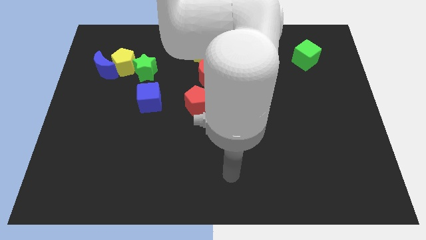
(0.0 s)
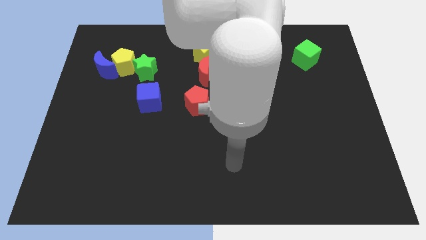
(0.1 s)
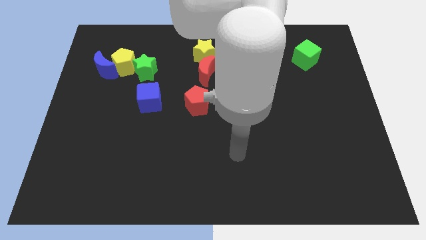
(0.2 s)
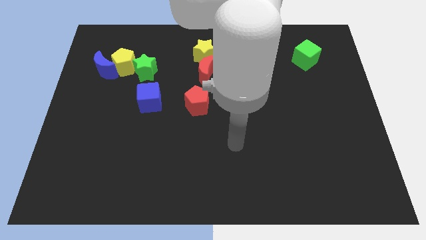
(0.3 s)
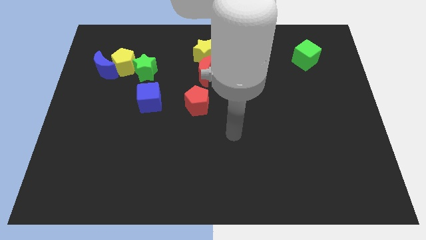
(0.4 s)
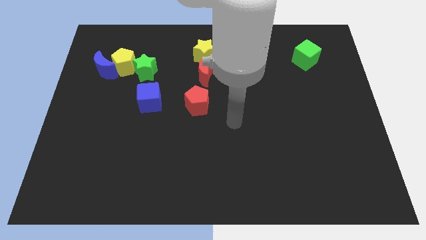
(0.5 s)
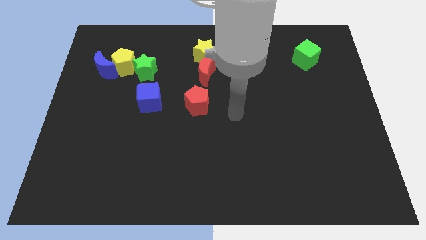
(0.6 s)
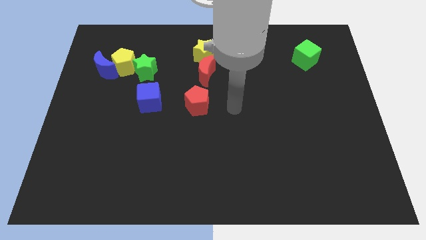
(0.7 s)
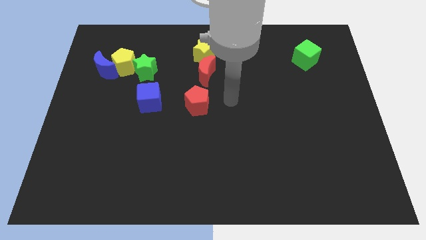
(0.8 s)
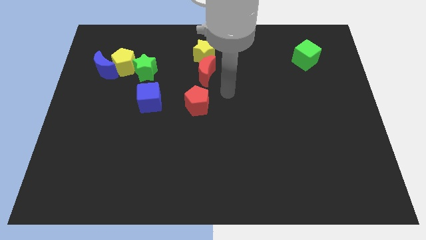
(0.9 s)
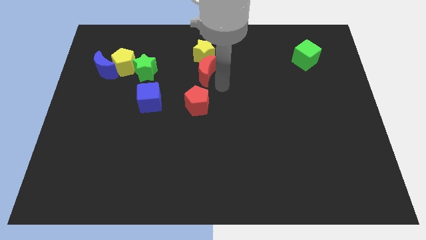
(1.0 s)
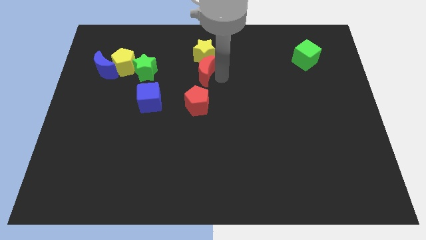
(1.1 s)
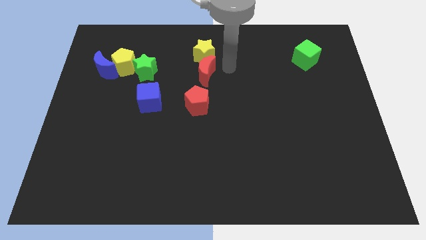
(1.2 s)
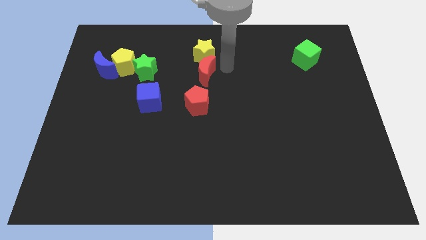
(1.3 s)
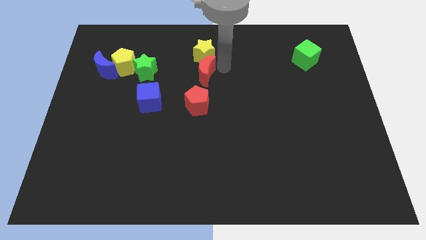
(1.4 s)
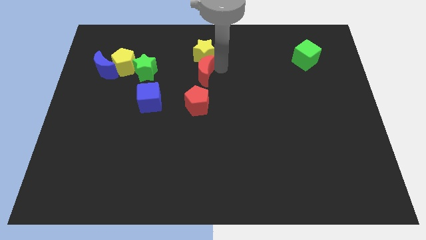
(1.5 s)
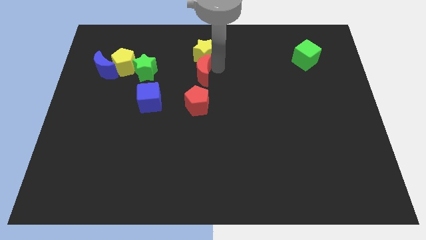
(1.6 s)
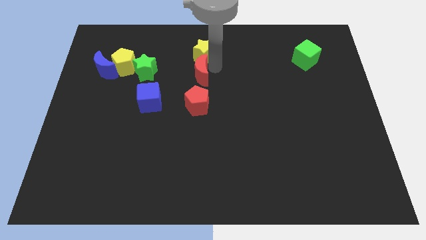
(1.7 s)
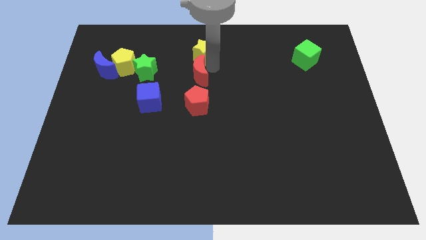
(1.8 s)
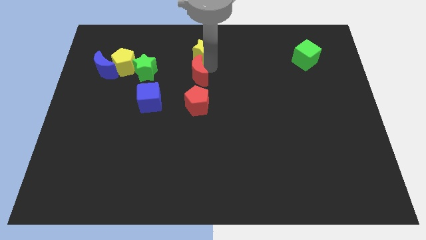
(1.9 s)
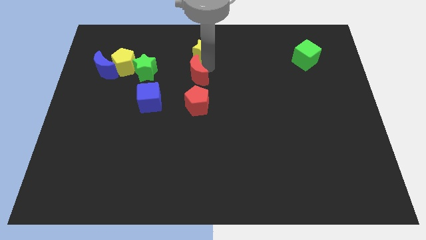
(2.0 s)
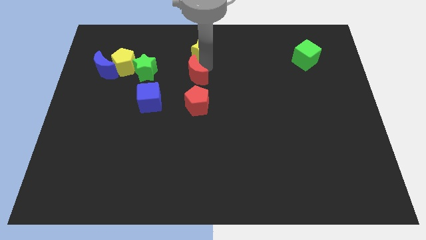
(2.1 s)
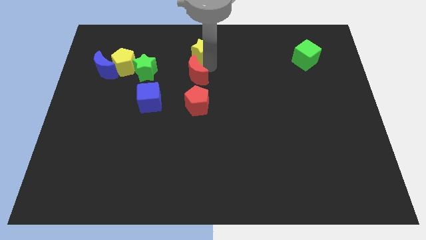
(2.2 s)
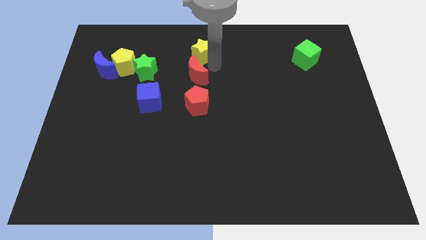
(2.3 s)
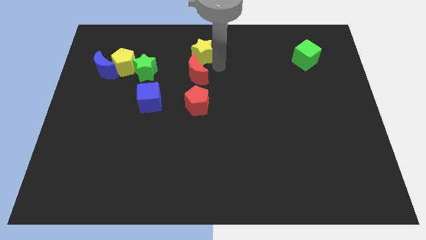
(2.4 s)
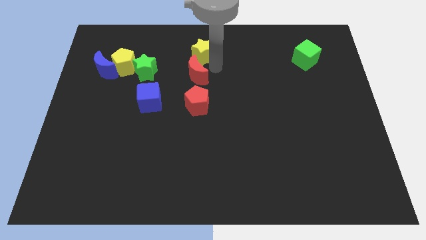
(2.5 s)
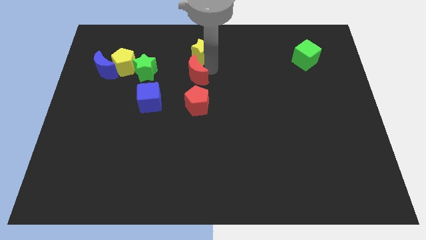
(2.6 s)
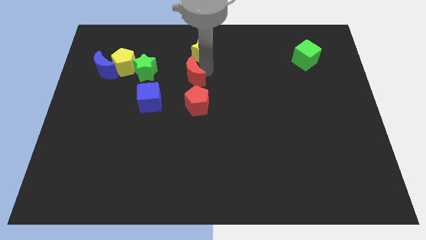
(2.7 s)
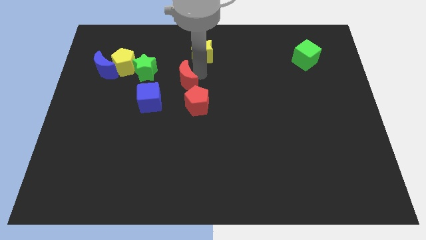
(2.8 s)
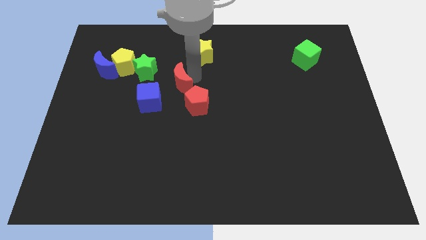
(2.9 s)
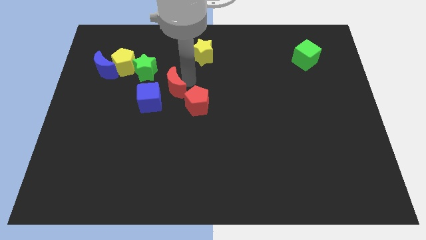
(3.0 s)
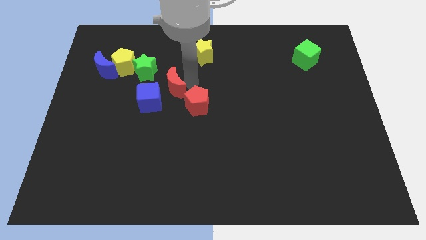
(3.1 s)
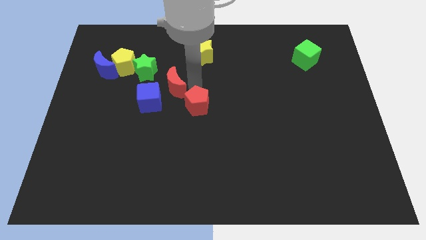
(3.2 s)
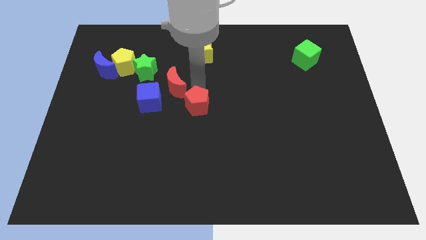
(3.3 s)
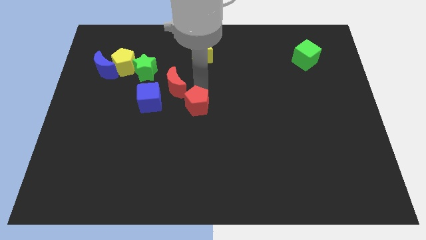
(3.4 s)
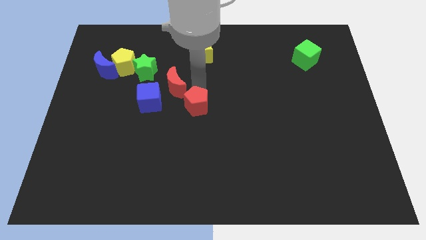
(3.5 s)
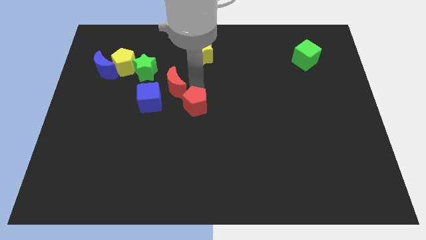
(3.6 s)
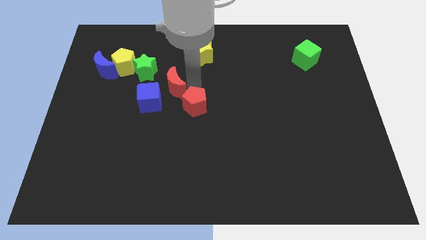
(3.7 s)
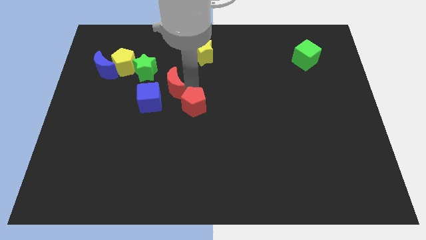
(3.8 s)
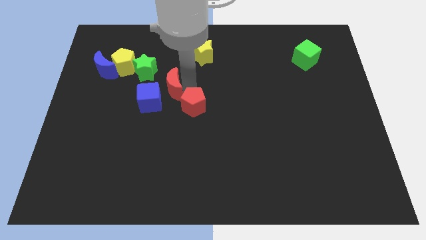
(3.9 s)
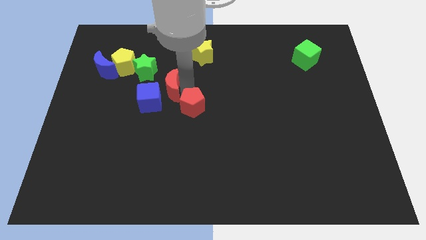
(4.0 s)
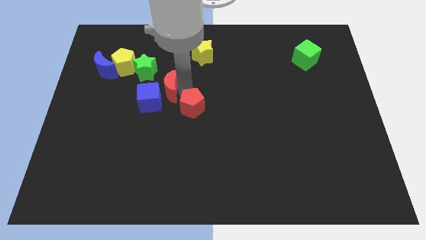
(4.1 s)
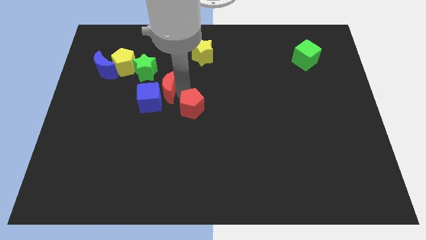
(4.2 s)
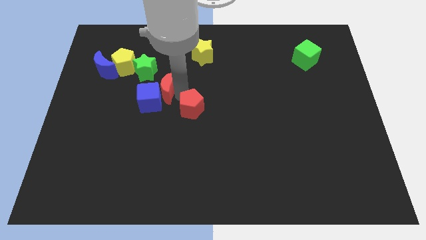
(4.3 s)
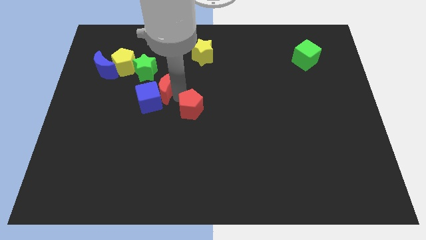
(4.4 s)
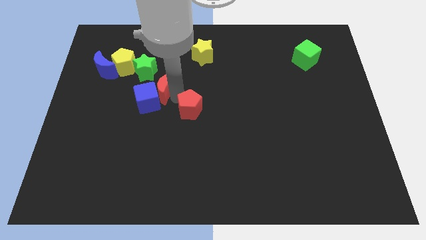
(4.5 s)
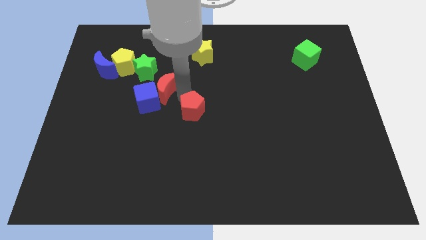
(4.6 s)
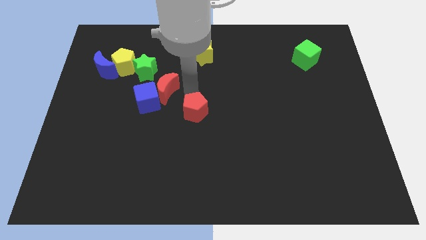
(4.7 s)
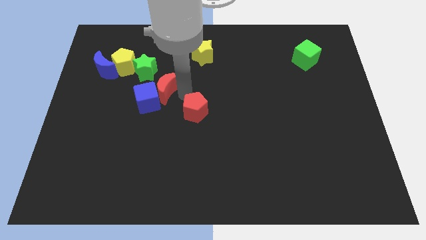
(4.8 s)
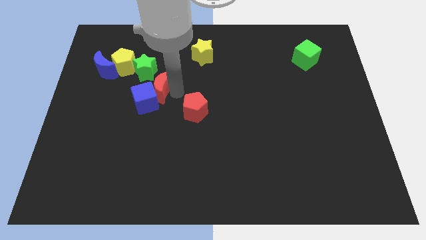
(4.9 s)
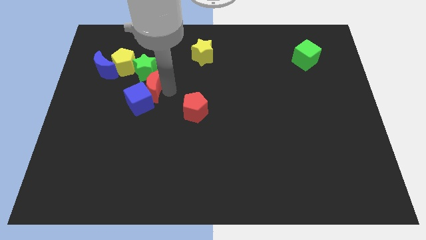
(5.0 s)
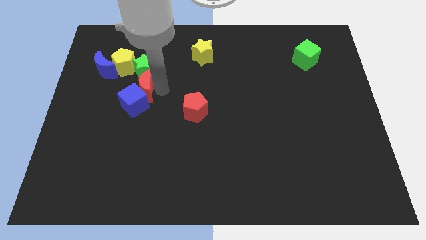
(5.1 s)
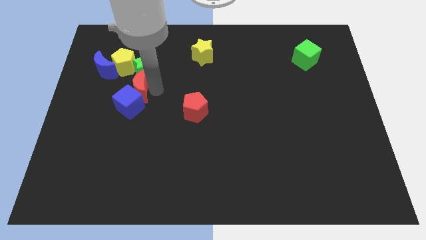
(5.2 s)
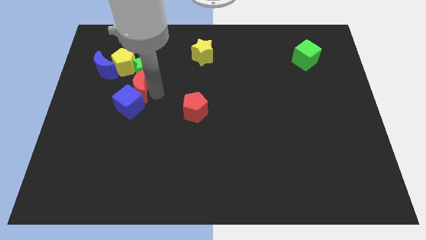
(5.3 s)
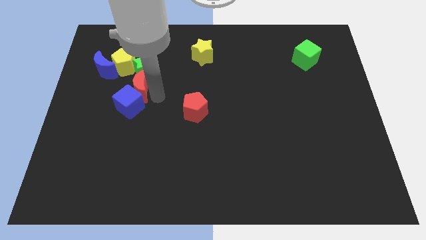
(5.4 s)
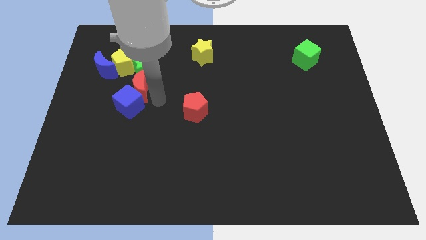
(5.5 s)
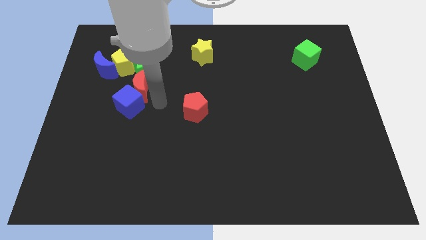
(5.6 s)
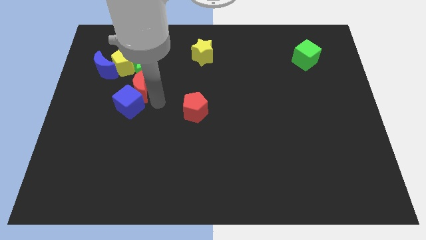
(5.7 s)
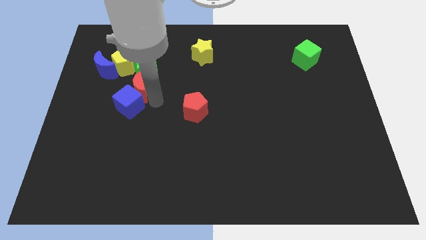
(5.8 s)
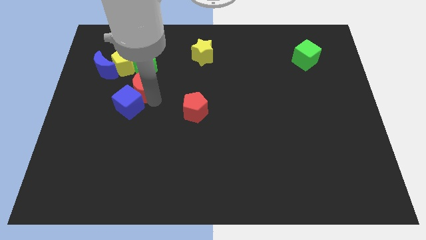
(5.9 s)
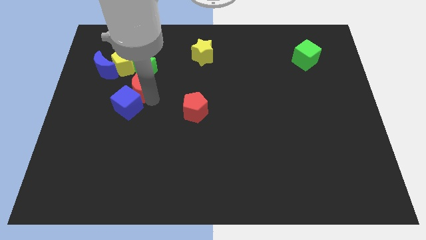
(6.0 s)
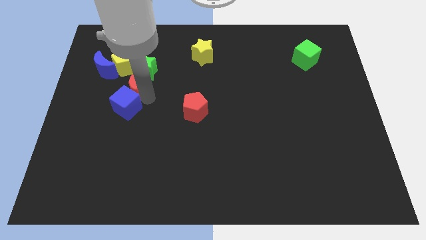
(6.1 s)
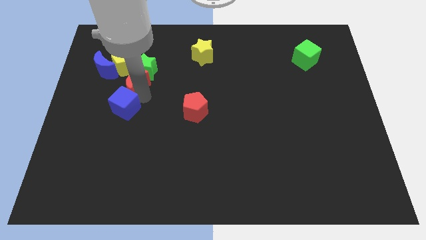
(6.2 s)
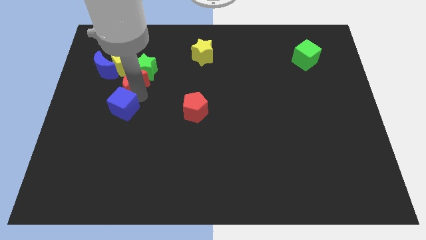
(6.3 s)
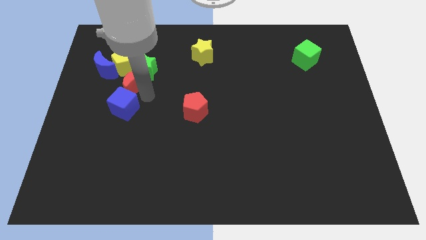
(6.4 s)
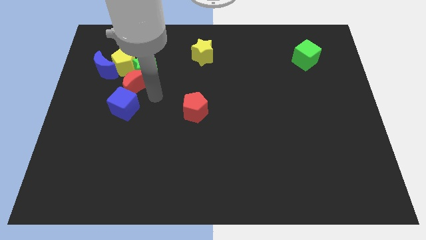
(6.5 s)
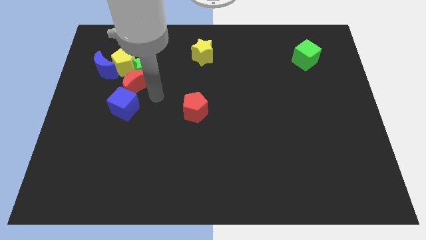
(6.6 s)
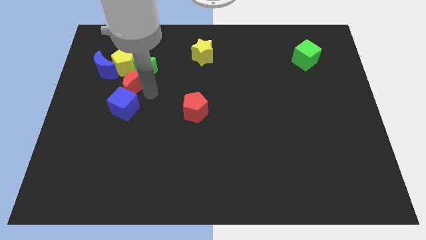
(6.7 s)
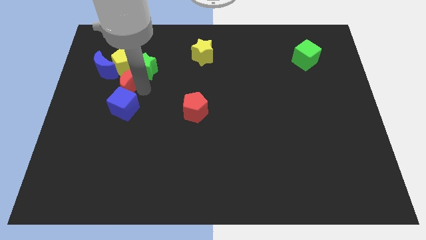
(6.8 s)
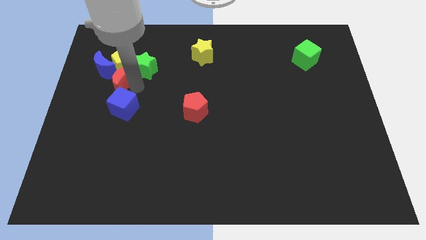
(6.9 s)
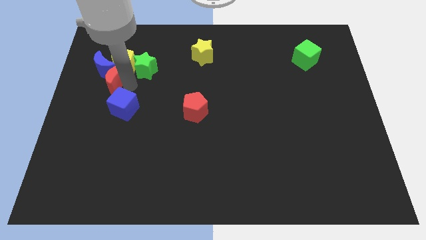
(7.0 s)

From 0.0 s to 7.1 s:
move the red moon towards the blue moon
